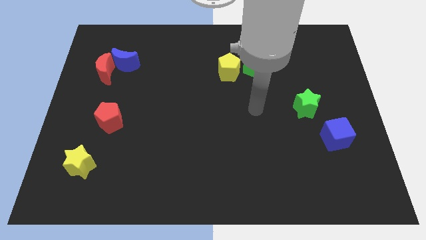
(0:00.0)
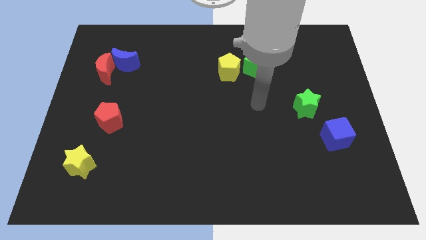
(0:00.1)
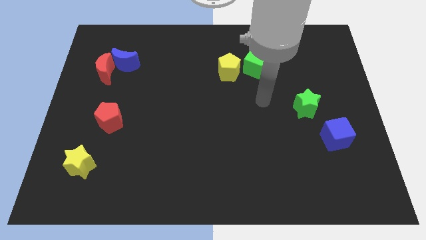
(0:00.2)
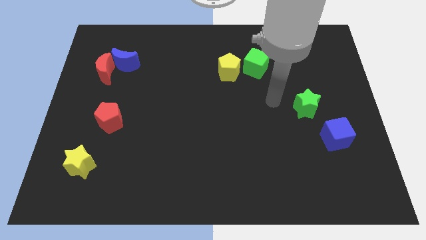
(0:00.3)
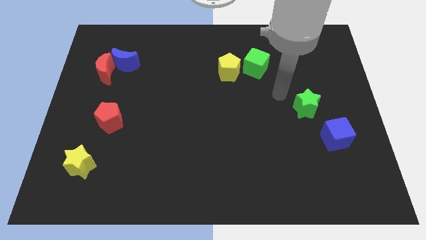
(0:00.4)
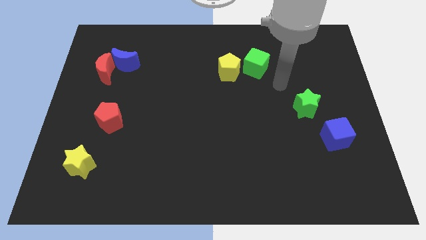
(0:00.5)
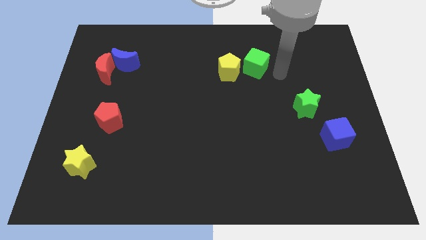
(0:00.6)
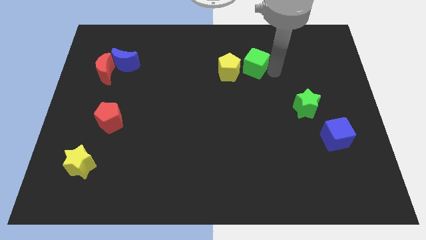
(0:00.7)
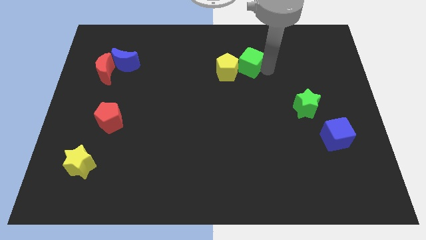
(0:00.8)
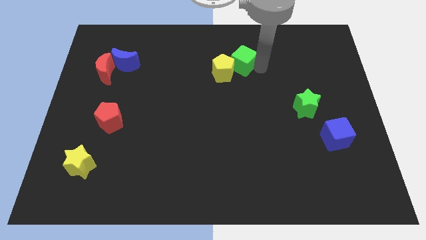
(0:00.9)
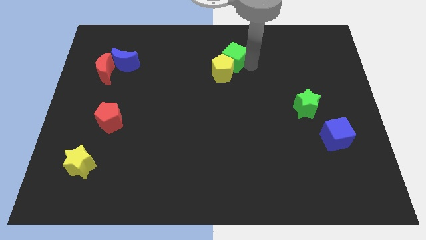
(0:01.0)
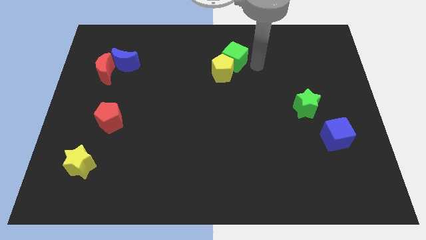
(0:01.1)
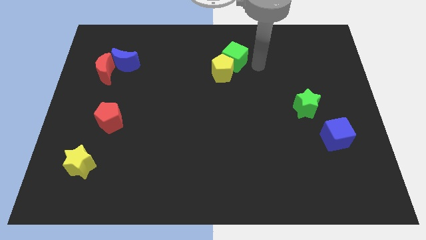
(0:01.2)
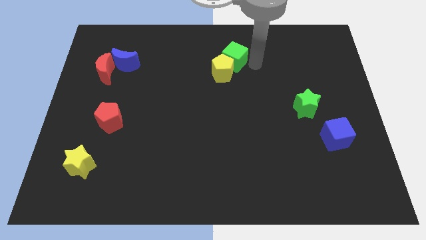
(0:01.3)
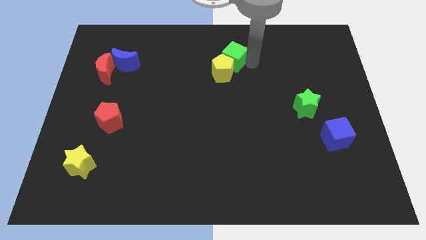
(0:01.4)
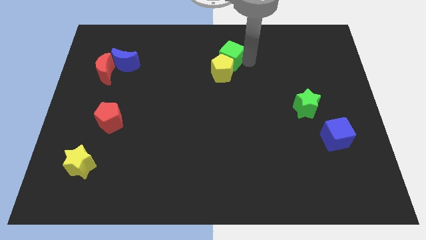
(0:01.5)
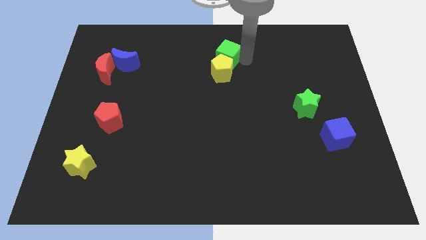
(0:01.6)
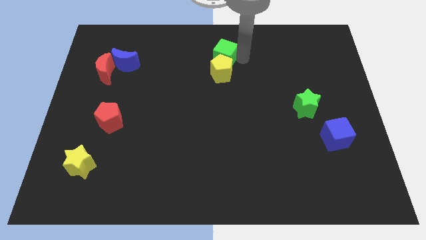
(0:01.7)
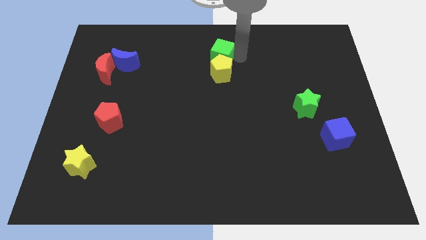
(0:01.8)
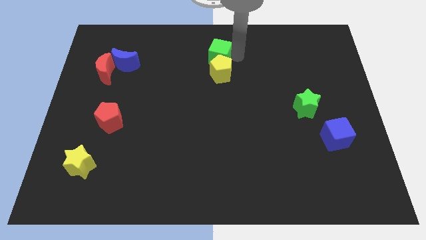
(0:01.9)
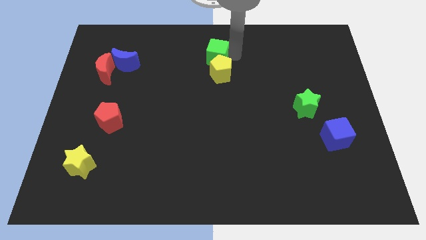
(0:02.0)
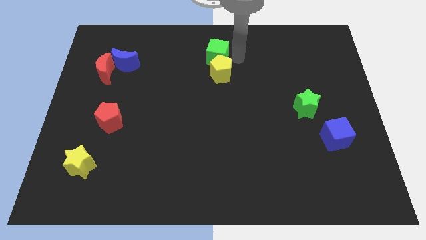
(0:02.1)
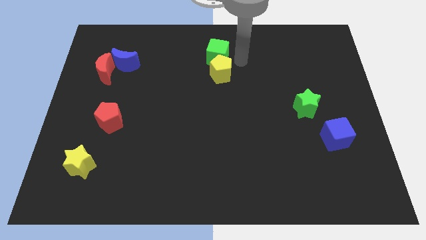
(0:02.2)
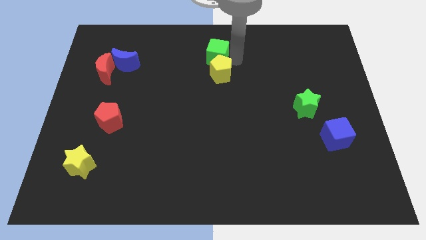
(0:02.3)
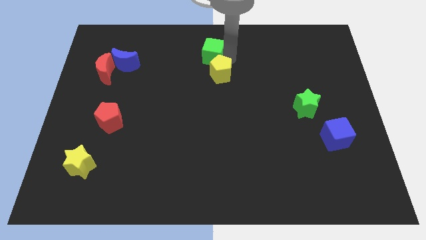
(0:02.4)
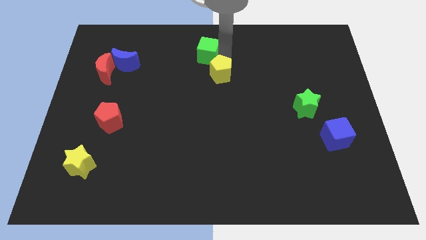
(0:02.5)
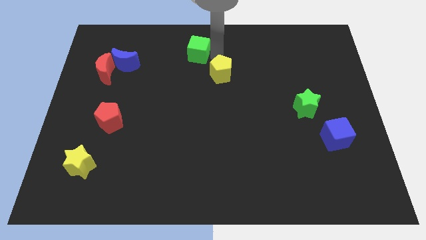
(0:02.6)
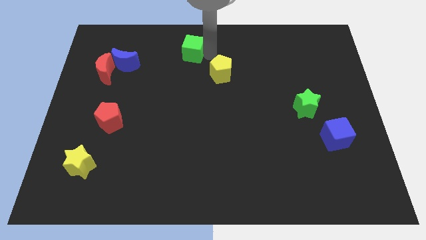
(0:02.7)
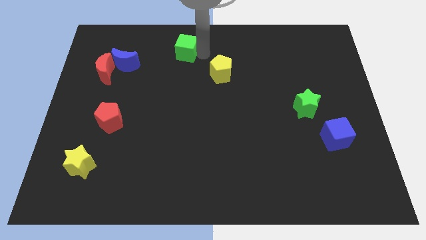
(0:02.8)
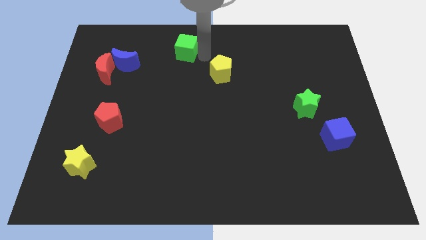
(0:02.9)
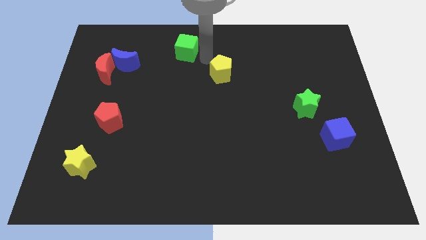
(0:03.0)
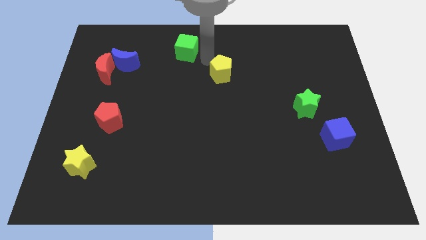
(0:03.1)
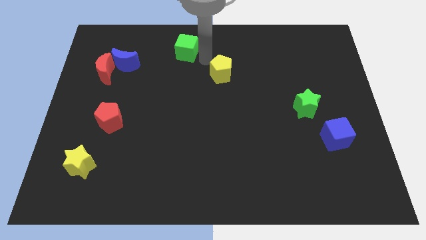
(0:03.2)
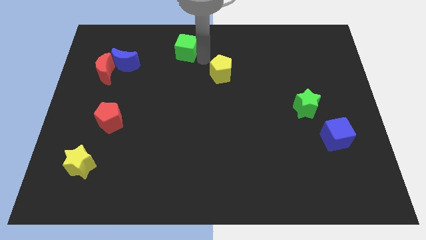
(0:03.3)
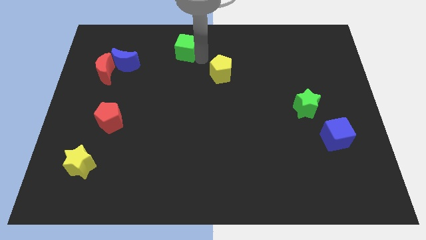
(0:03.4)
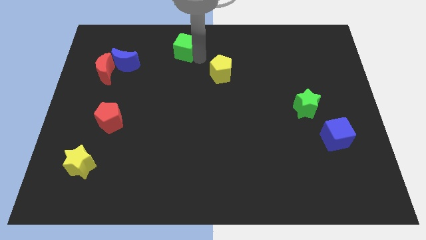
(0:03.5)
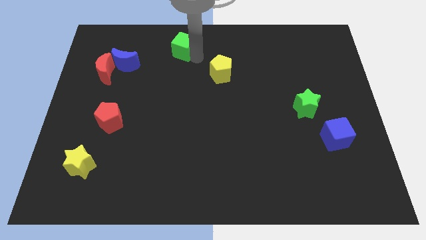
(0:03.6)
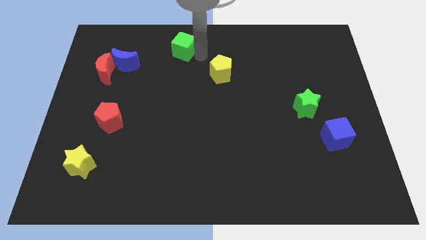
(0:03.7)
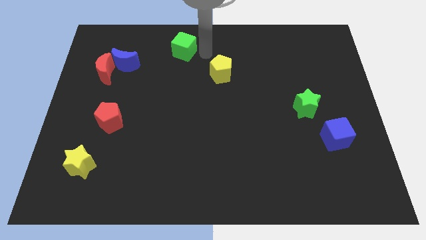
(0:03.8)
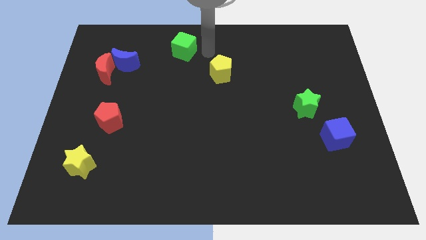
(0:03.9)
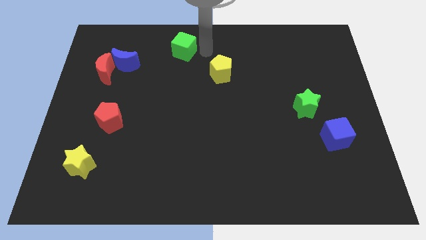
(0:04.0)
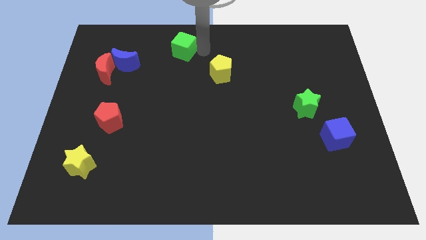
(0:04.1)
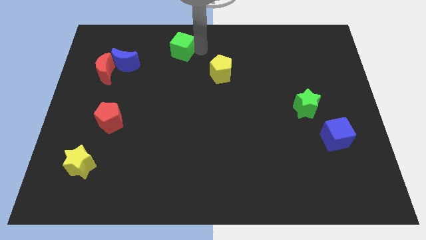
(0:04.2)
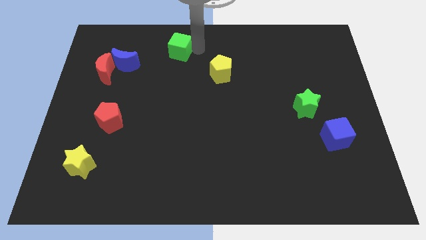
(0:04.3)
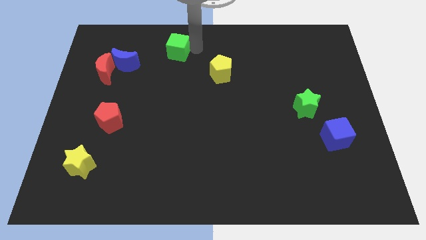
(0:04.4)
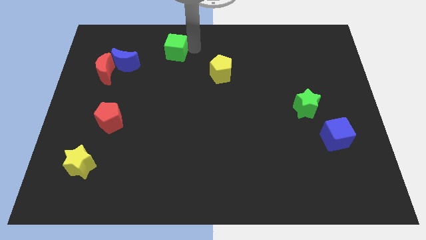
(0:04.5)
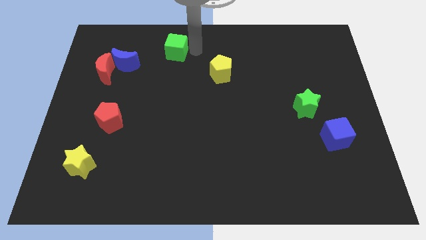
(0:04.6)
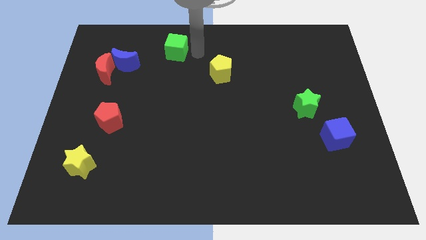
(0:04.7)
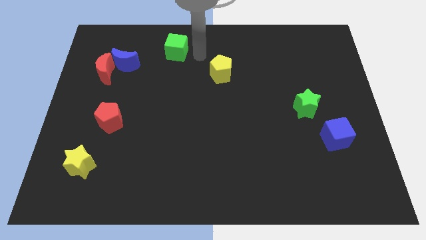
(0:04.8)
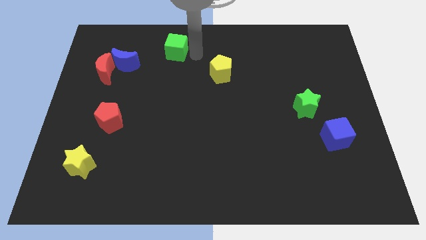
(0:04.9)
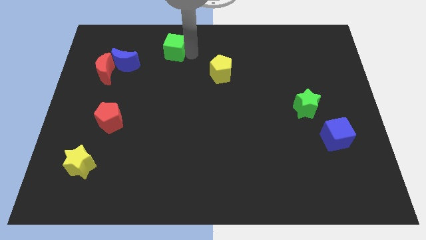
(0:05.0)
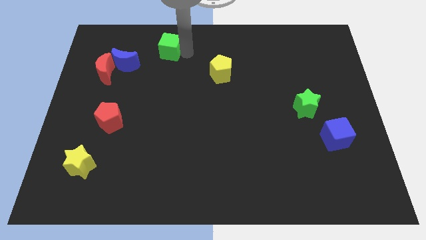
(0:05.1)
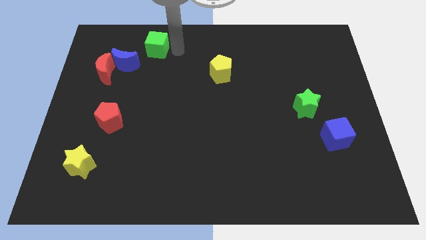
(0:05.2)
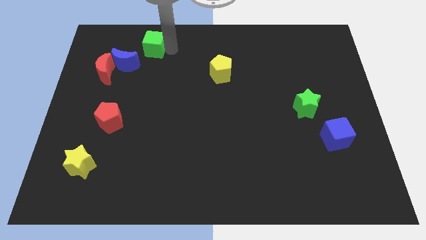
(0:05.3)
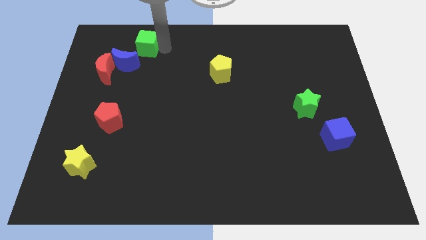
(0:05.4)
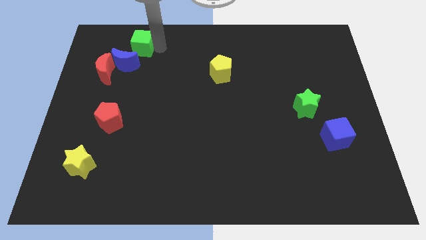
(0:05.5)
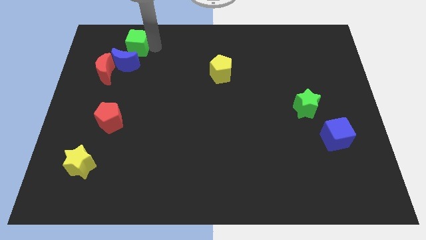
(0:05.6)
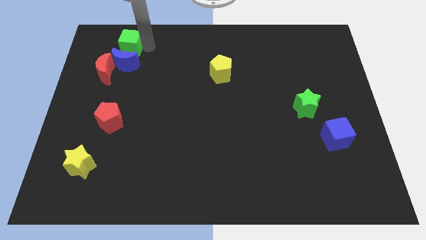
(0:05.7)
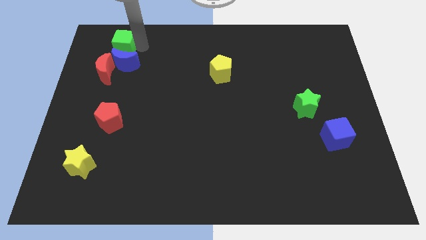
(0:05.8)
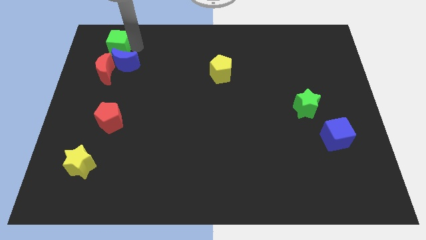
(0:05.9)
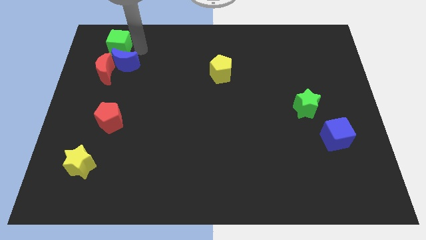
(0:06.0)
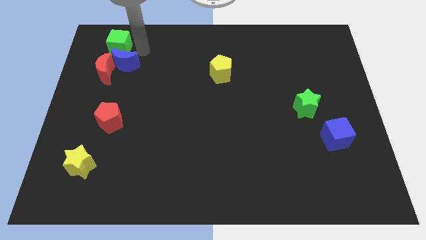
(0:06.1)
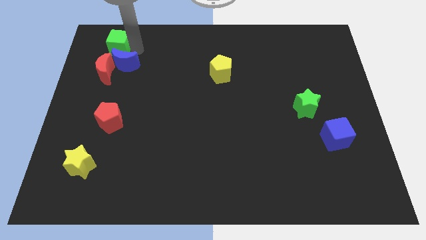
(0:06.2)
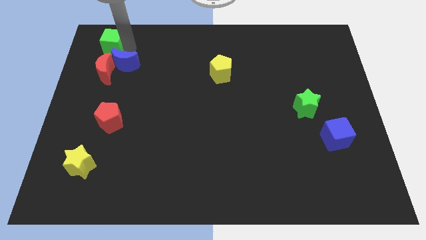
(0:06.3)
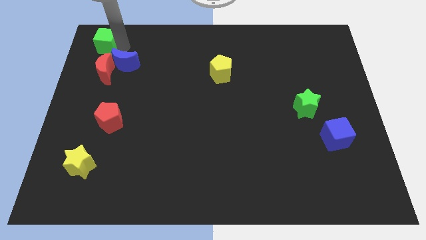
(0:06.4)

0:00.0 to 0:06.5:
put the green cube to the top left of the board
